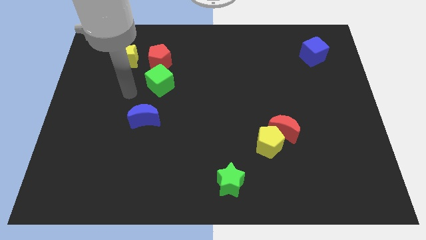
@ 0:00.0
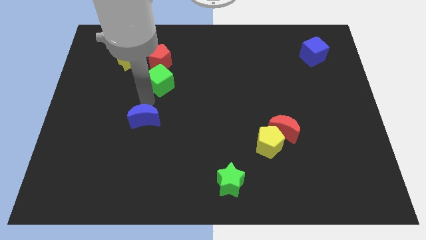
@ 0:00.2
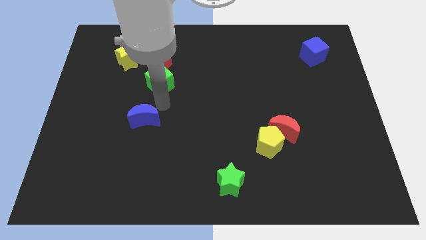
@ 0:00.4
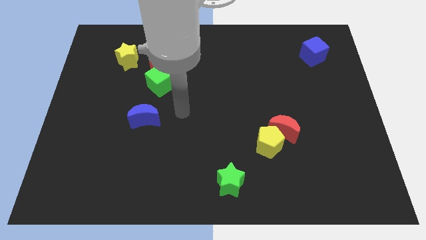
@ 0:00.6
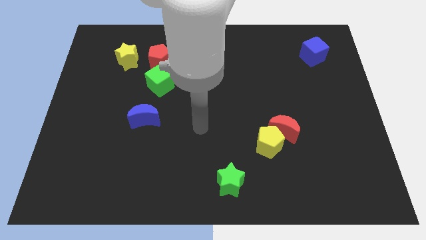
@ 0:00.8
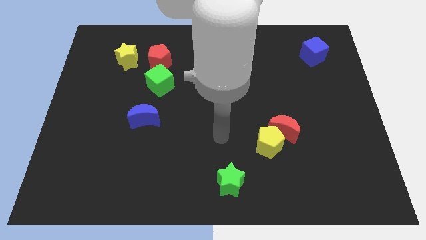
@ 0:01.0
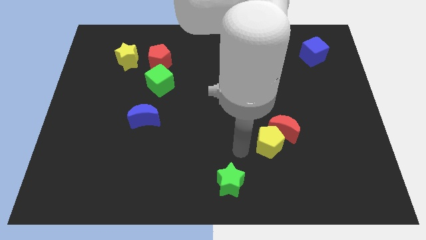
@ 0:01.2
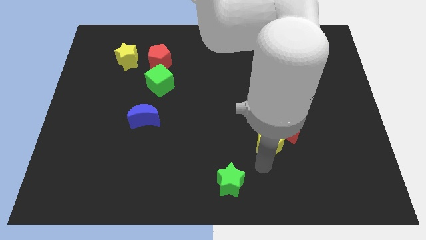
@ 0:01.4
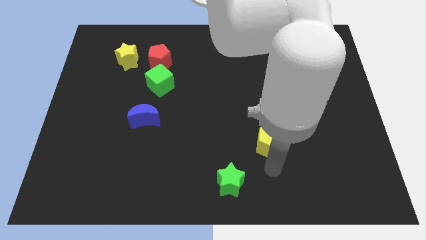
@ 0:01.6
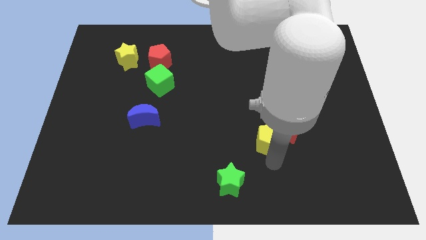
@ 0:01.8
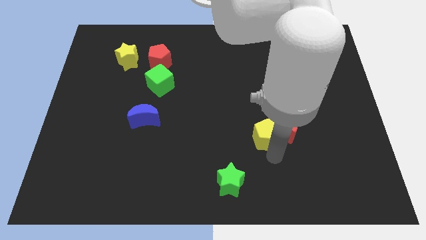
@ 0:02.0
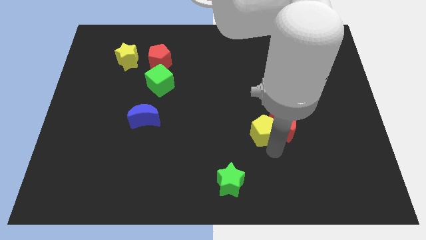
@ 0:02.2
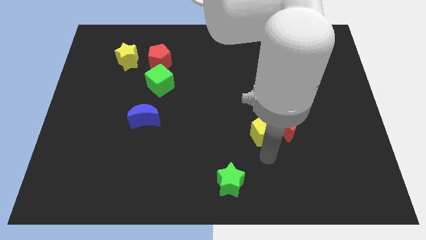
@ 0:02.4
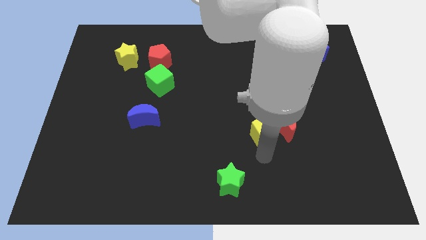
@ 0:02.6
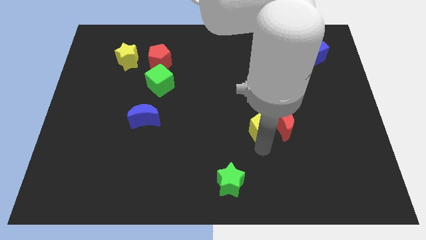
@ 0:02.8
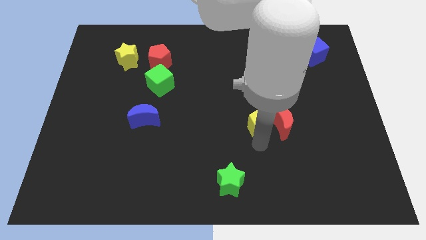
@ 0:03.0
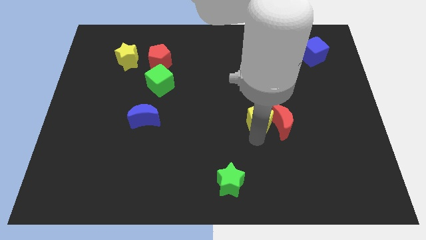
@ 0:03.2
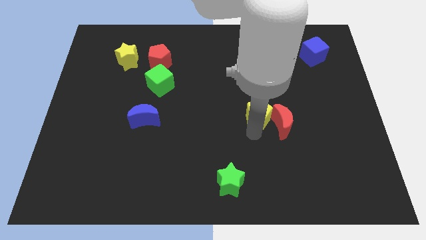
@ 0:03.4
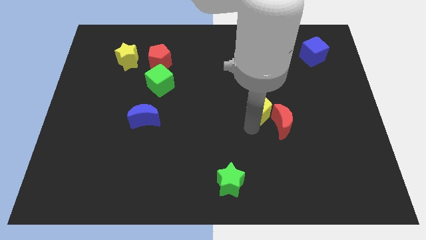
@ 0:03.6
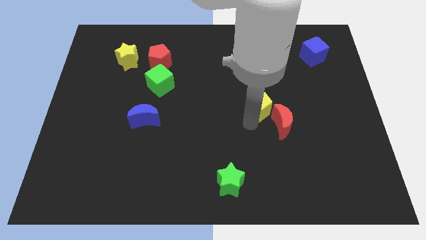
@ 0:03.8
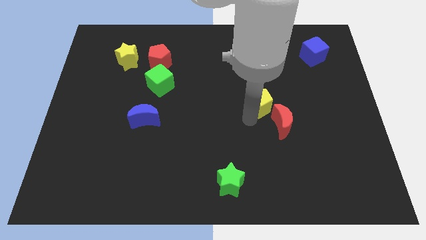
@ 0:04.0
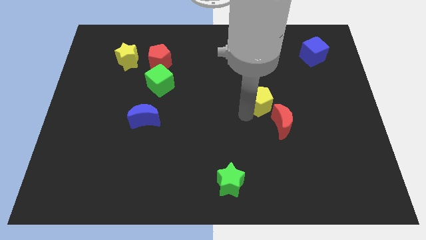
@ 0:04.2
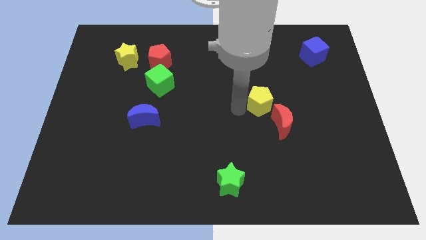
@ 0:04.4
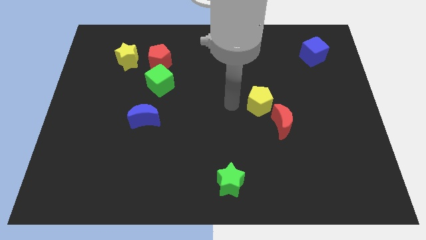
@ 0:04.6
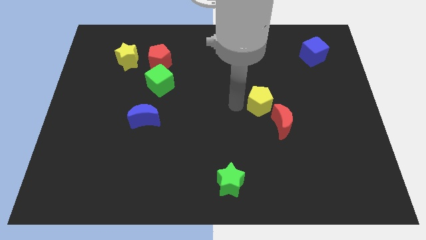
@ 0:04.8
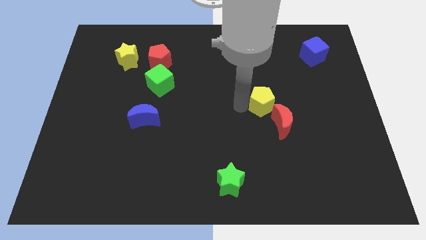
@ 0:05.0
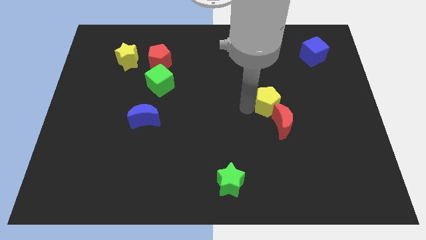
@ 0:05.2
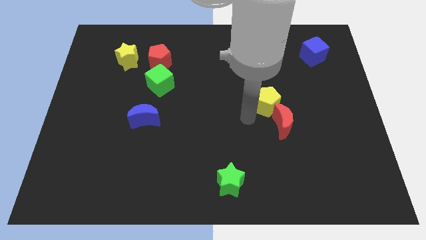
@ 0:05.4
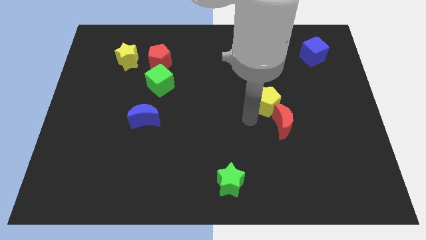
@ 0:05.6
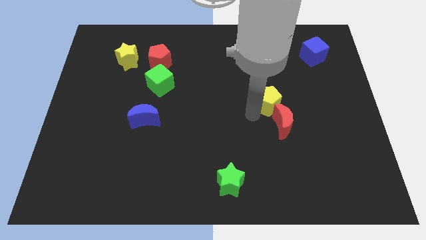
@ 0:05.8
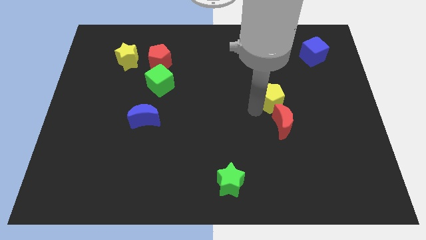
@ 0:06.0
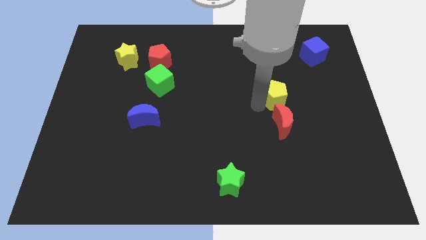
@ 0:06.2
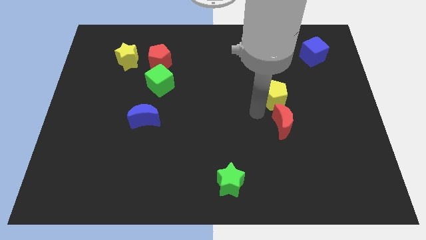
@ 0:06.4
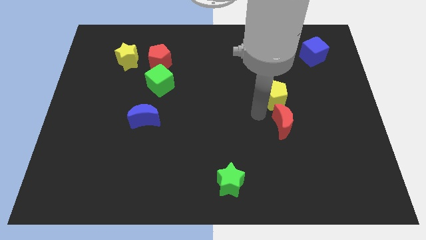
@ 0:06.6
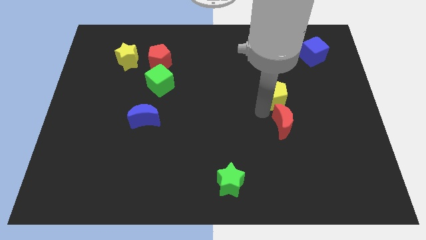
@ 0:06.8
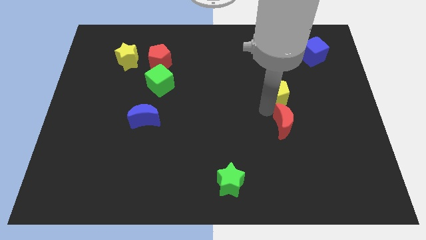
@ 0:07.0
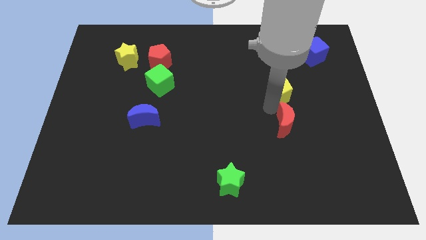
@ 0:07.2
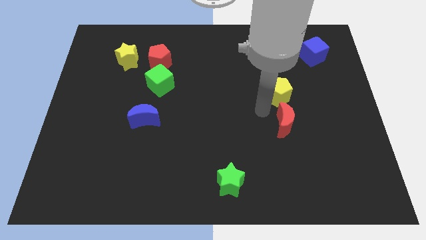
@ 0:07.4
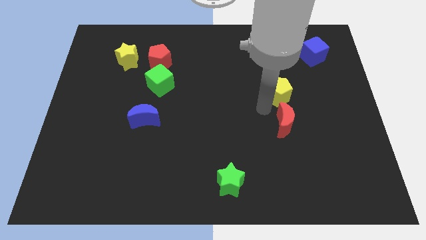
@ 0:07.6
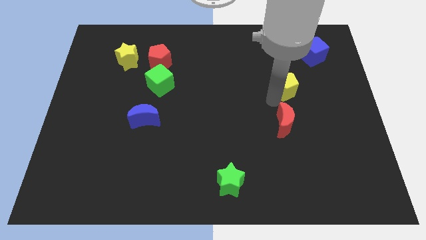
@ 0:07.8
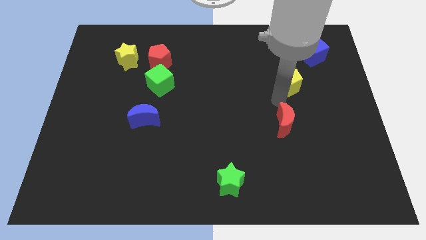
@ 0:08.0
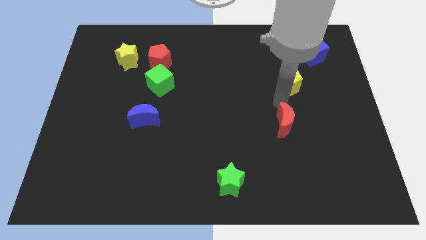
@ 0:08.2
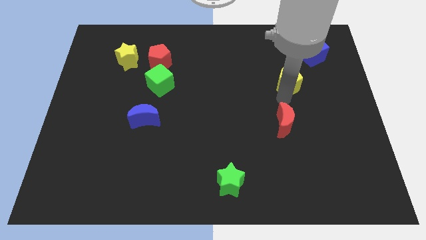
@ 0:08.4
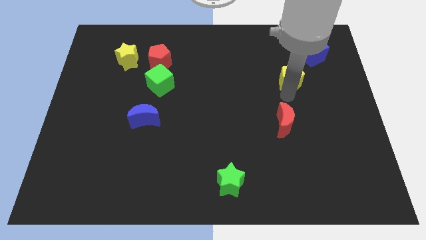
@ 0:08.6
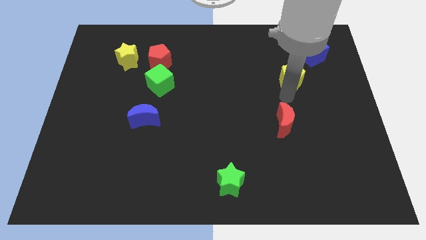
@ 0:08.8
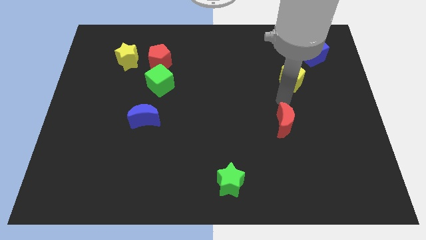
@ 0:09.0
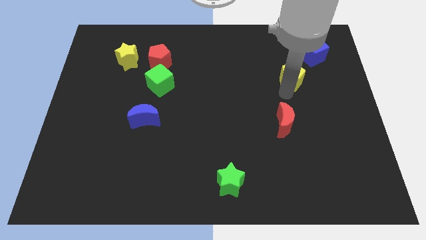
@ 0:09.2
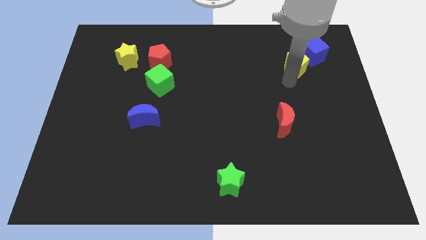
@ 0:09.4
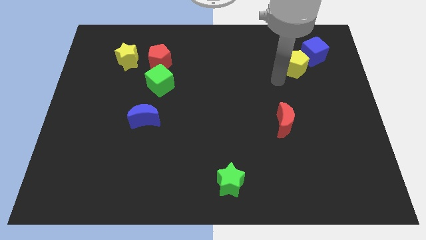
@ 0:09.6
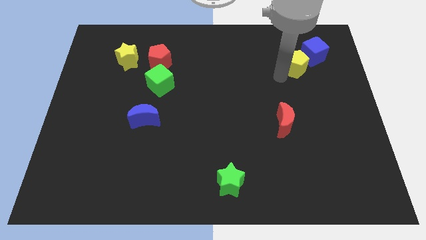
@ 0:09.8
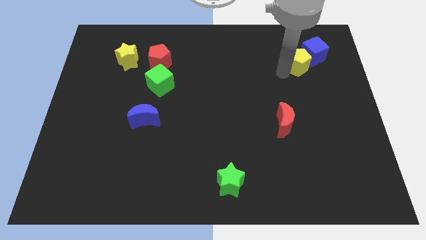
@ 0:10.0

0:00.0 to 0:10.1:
slide the yellow pentagon to the blue cube

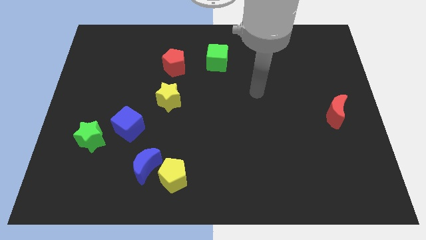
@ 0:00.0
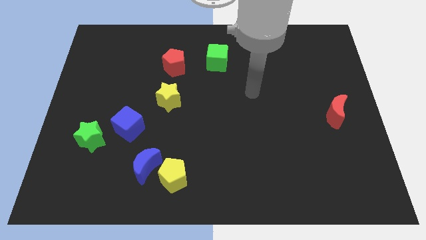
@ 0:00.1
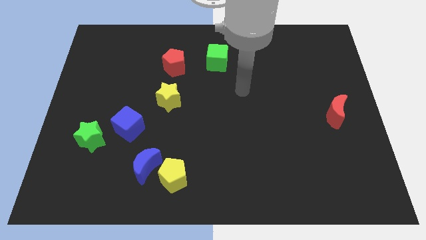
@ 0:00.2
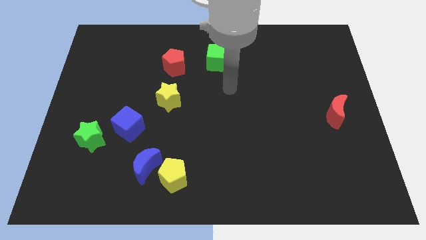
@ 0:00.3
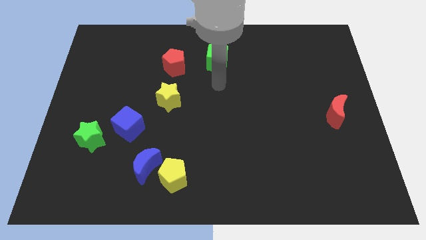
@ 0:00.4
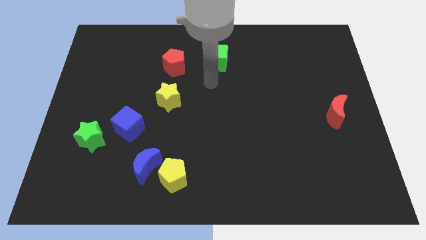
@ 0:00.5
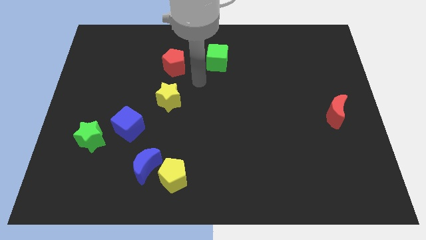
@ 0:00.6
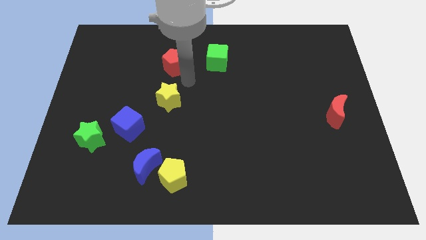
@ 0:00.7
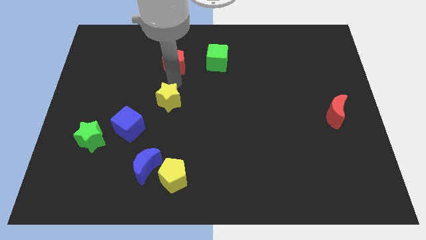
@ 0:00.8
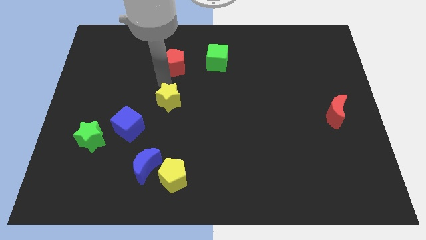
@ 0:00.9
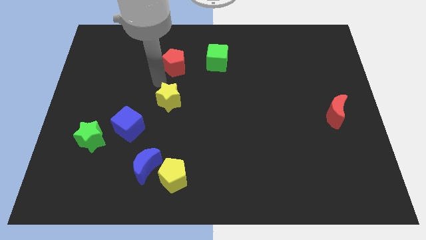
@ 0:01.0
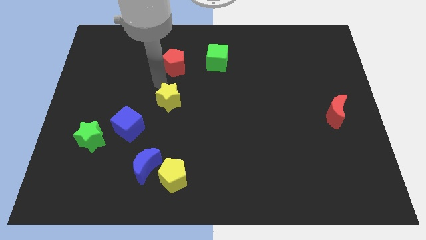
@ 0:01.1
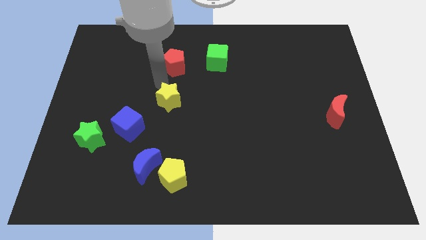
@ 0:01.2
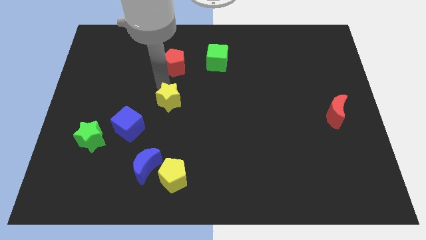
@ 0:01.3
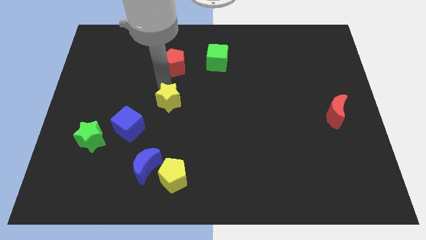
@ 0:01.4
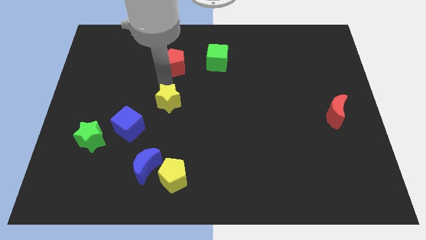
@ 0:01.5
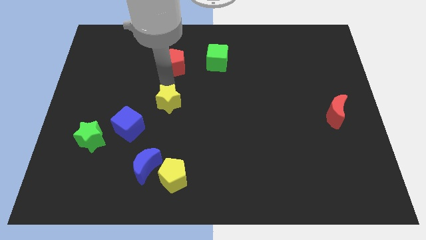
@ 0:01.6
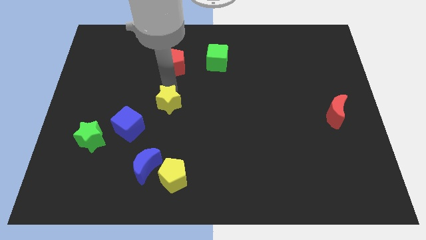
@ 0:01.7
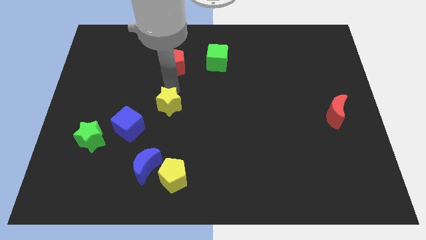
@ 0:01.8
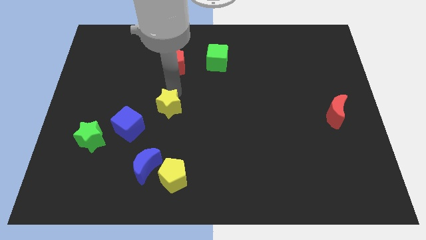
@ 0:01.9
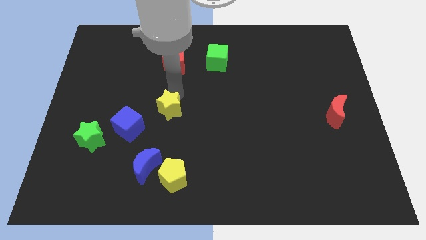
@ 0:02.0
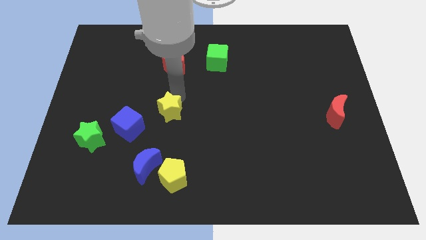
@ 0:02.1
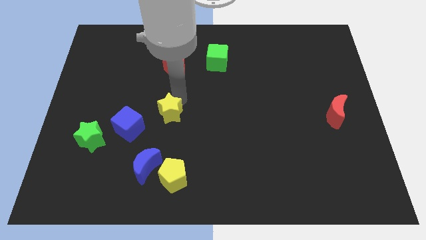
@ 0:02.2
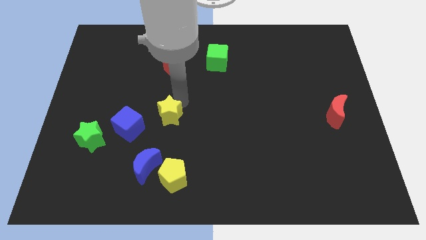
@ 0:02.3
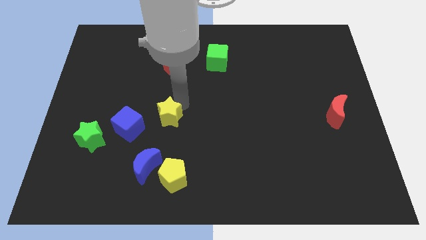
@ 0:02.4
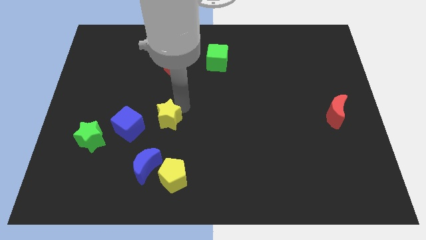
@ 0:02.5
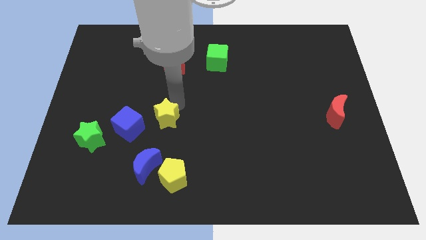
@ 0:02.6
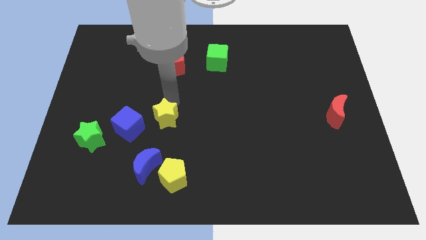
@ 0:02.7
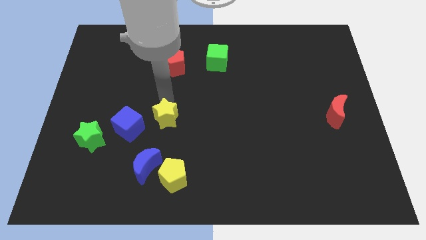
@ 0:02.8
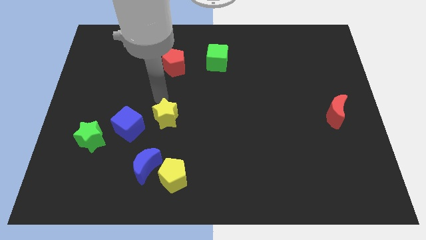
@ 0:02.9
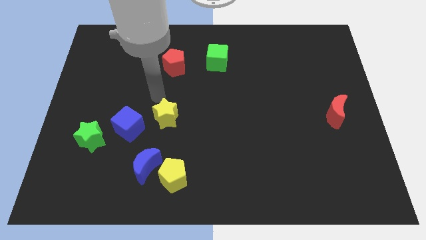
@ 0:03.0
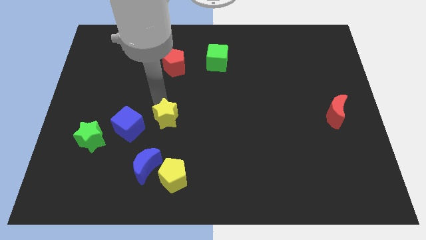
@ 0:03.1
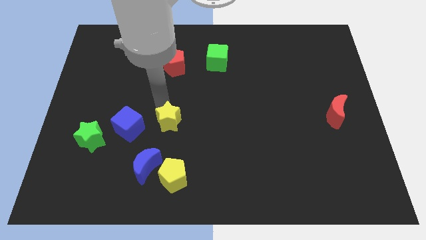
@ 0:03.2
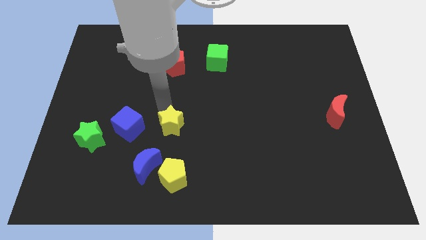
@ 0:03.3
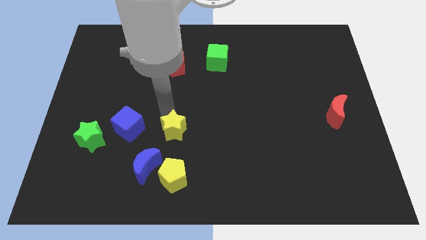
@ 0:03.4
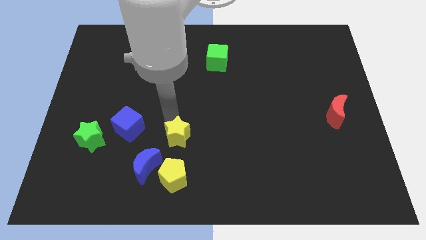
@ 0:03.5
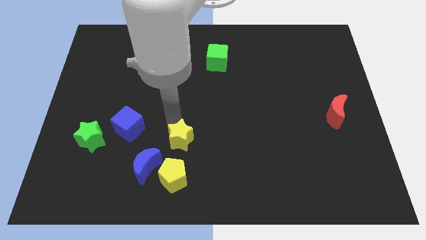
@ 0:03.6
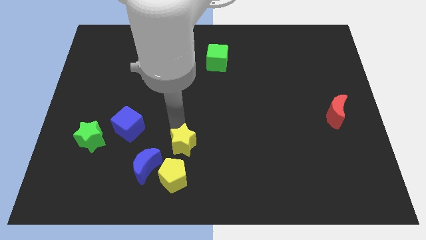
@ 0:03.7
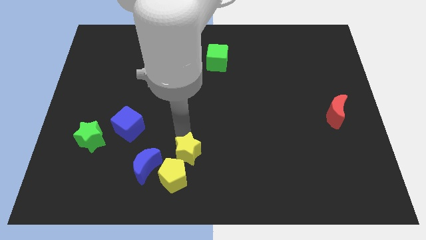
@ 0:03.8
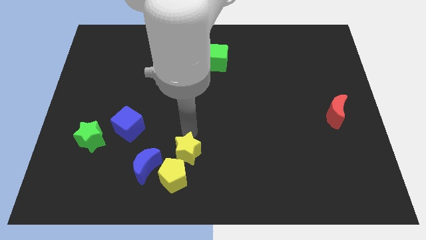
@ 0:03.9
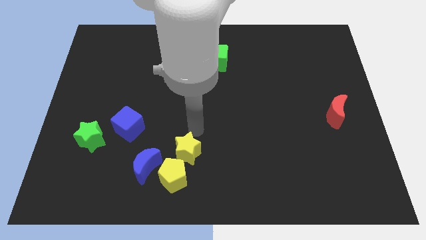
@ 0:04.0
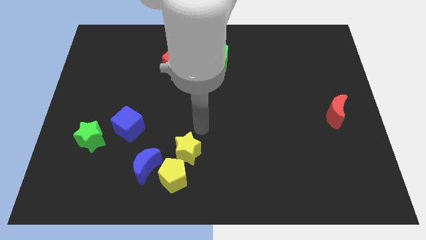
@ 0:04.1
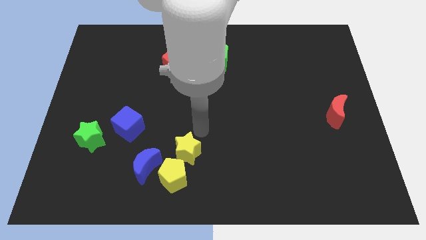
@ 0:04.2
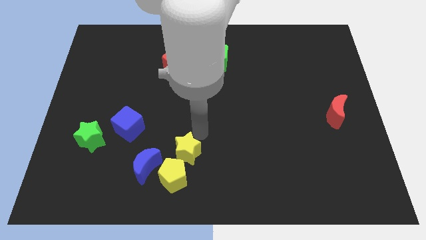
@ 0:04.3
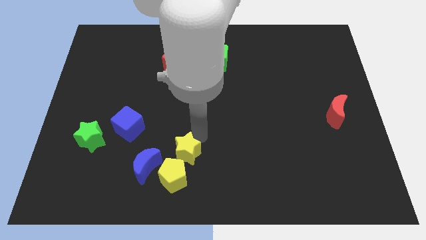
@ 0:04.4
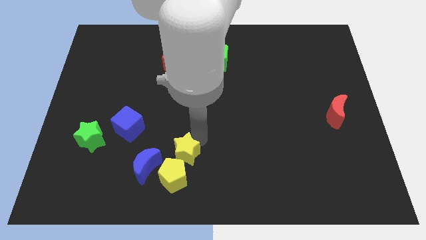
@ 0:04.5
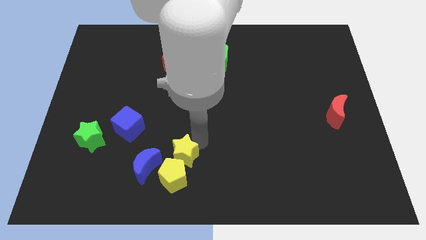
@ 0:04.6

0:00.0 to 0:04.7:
push the yellow star next to the yellow pentagon
